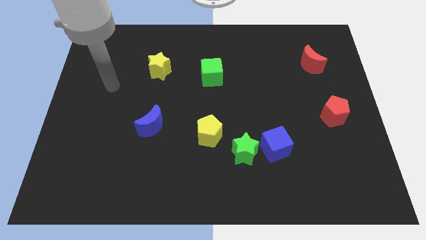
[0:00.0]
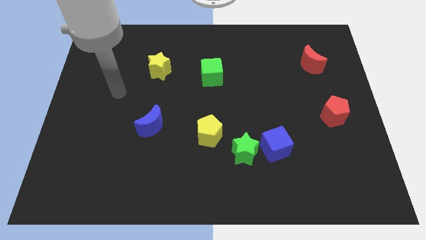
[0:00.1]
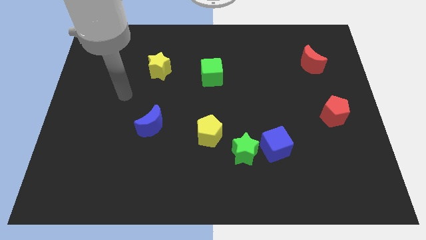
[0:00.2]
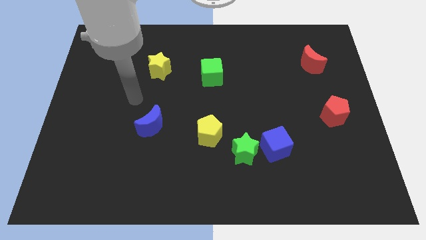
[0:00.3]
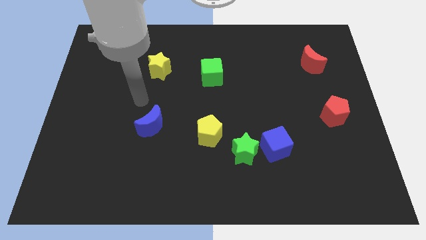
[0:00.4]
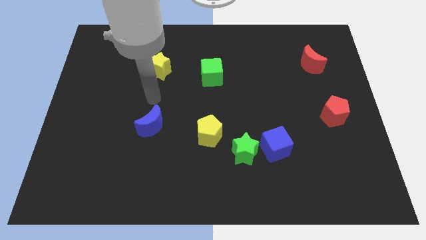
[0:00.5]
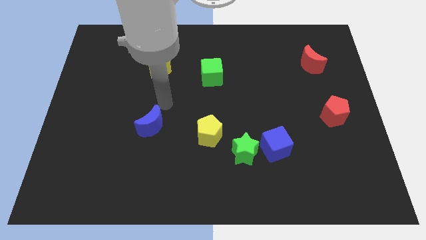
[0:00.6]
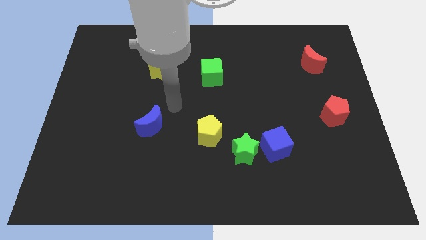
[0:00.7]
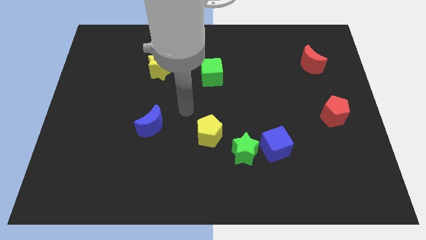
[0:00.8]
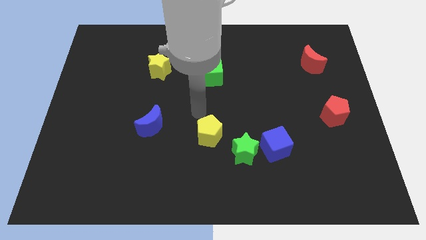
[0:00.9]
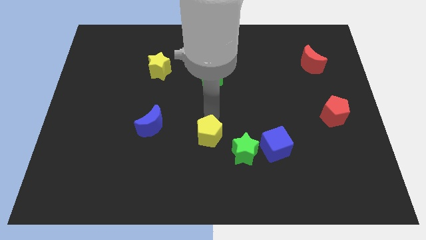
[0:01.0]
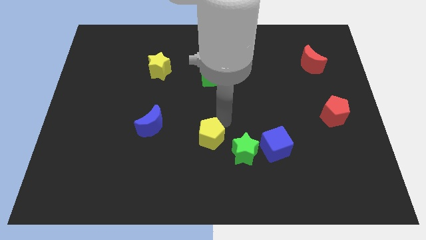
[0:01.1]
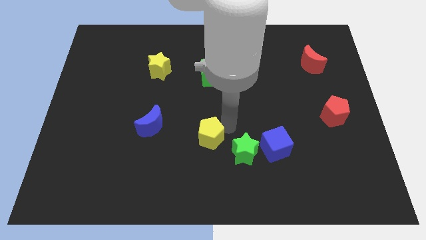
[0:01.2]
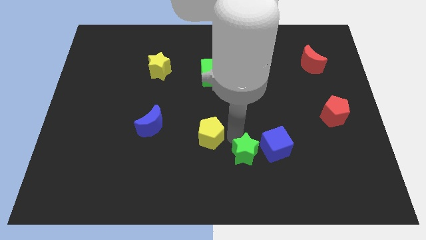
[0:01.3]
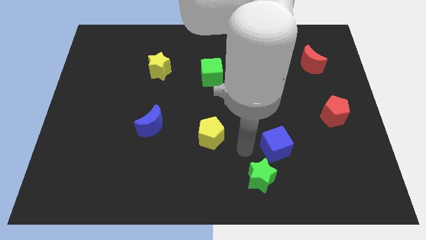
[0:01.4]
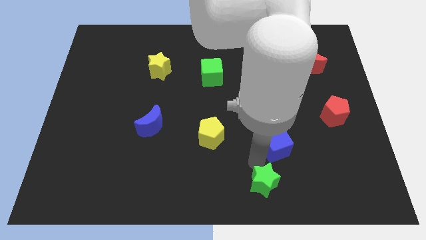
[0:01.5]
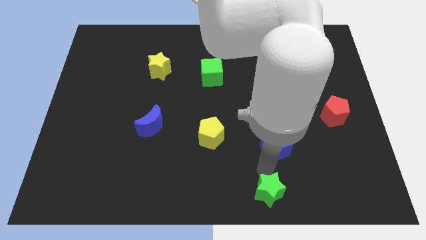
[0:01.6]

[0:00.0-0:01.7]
pull the blue cube apart from the green star

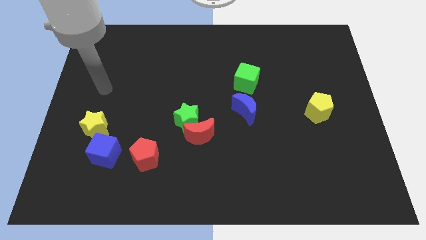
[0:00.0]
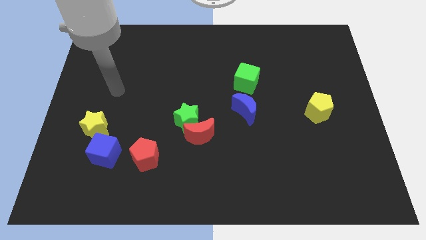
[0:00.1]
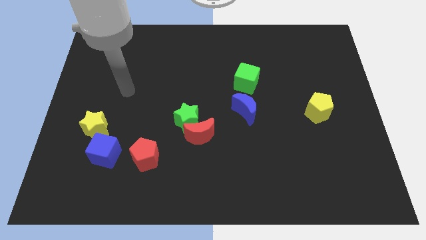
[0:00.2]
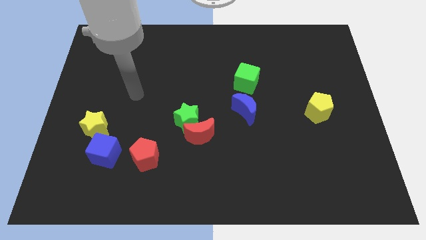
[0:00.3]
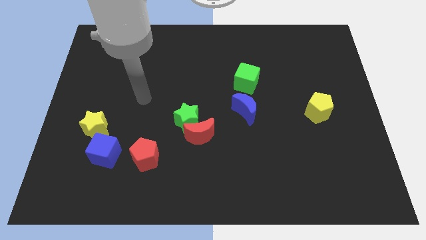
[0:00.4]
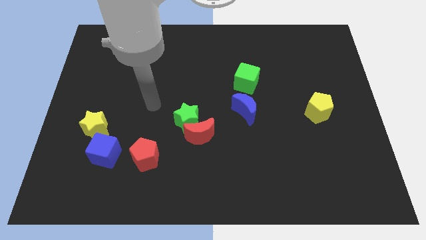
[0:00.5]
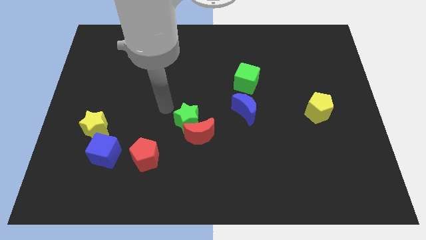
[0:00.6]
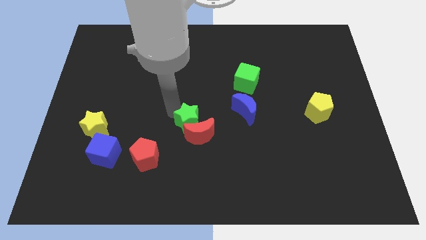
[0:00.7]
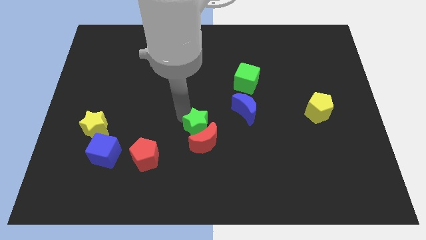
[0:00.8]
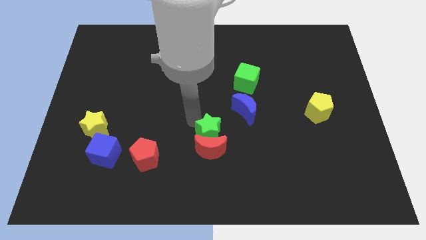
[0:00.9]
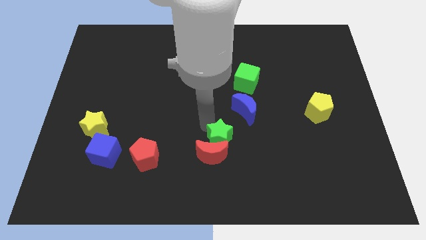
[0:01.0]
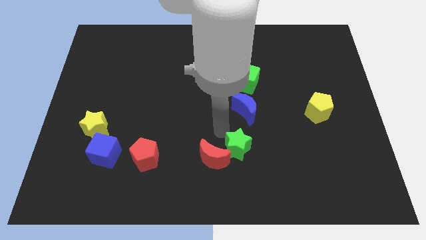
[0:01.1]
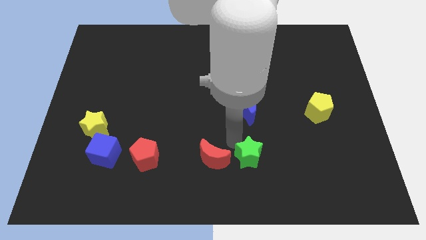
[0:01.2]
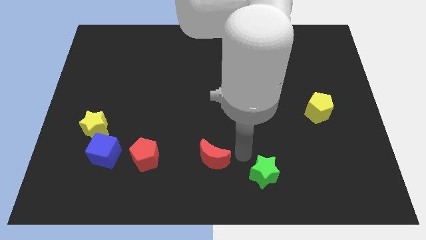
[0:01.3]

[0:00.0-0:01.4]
separate the red moon from the green star

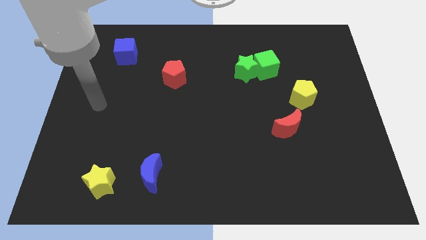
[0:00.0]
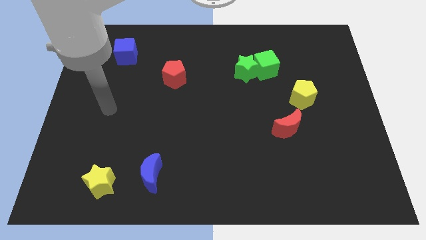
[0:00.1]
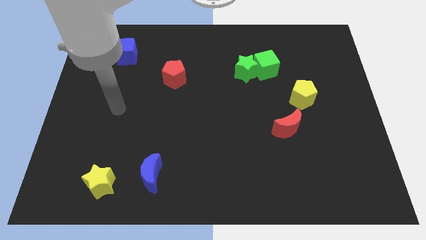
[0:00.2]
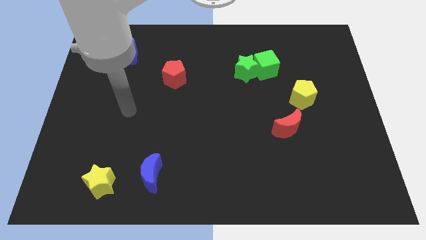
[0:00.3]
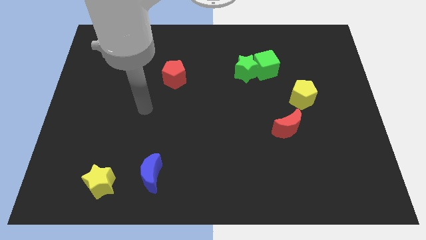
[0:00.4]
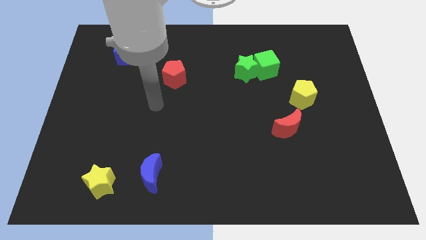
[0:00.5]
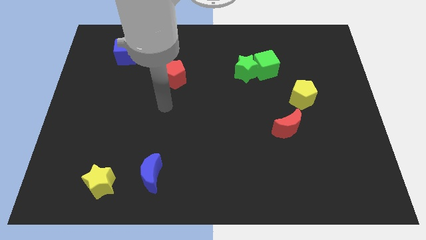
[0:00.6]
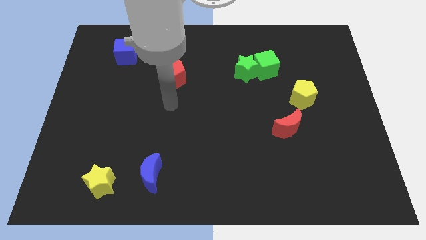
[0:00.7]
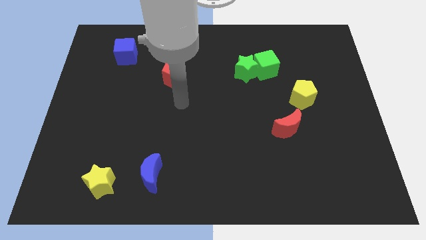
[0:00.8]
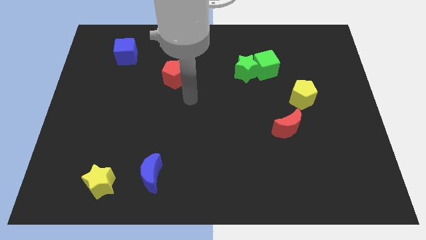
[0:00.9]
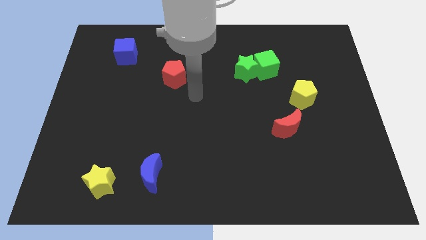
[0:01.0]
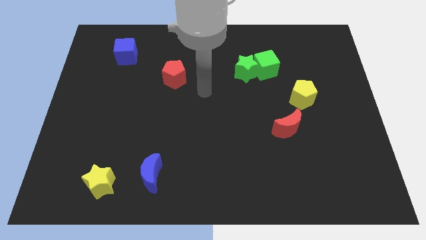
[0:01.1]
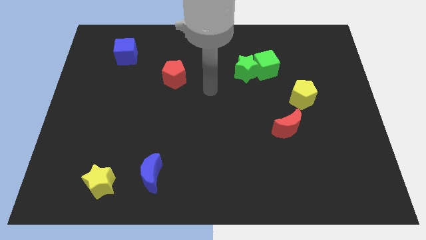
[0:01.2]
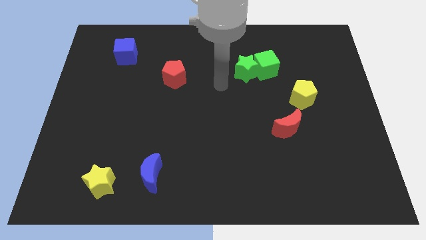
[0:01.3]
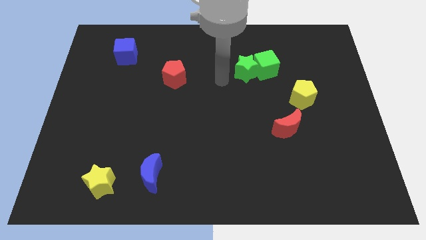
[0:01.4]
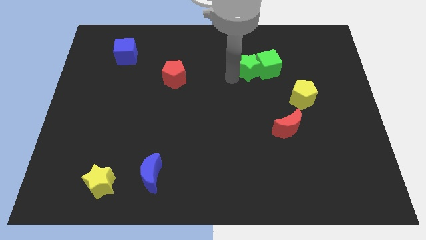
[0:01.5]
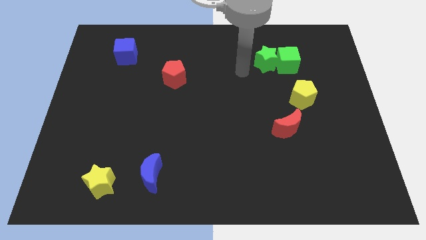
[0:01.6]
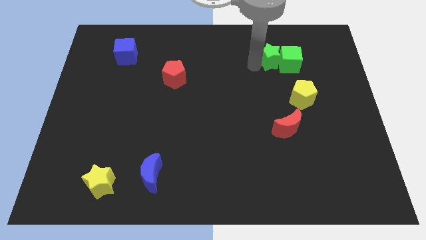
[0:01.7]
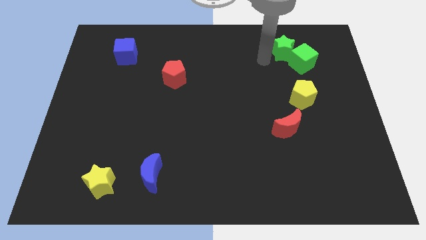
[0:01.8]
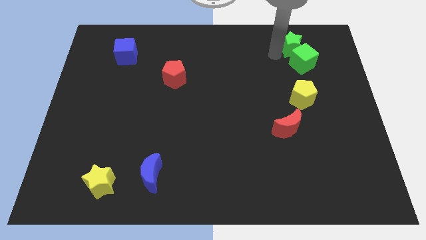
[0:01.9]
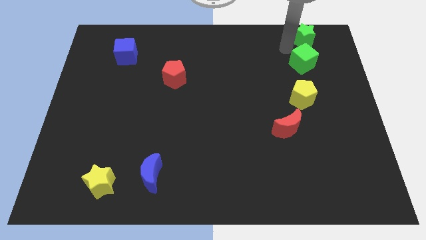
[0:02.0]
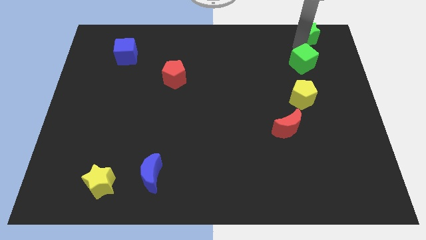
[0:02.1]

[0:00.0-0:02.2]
pull the green cube apart from the green star

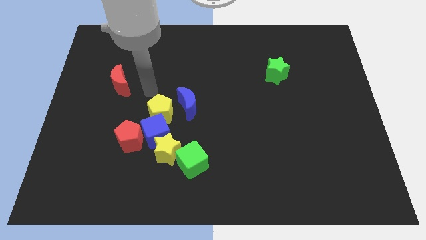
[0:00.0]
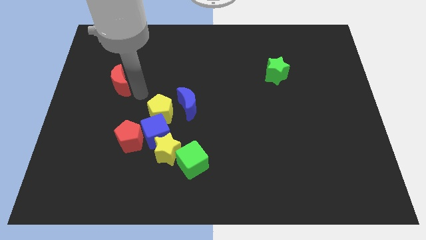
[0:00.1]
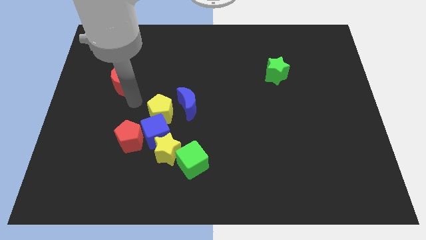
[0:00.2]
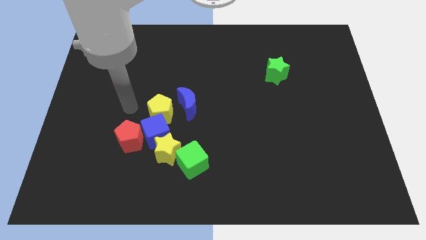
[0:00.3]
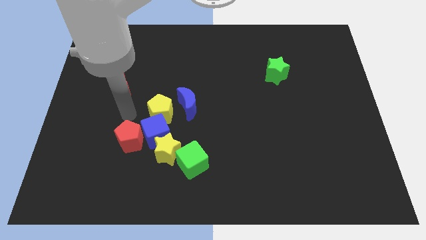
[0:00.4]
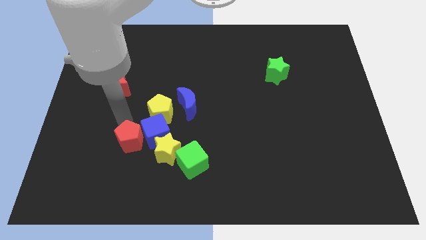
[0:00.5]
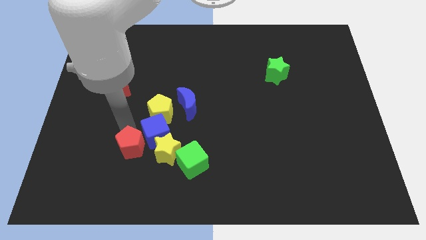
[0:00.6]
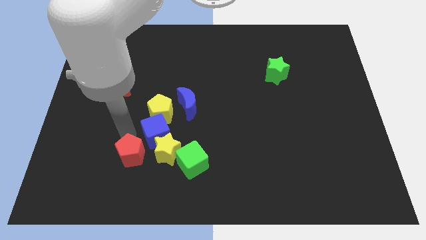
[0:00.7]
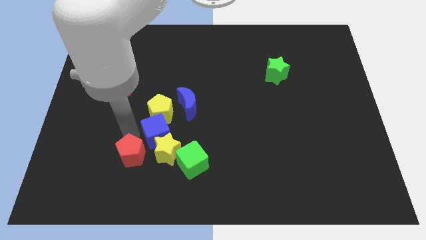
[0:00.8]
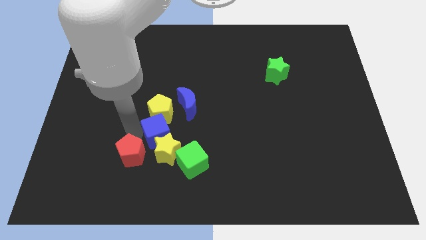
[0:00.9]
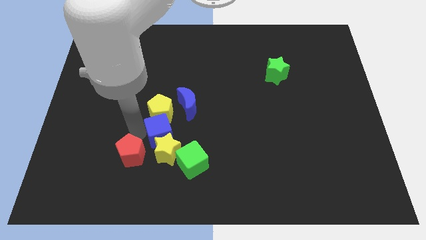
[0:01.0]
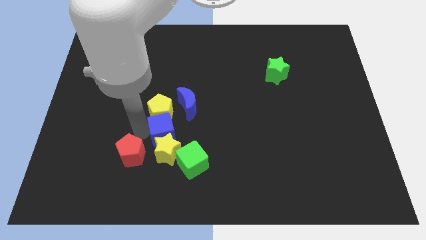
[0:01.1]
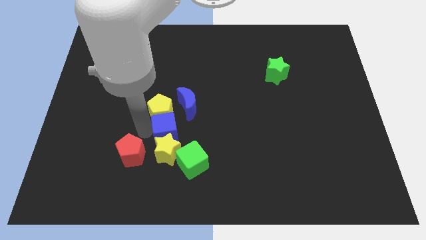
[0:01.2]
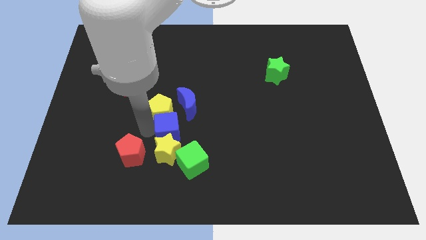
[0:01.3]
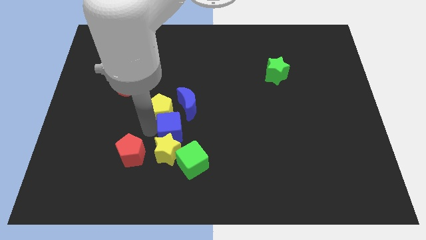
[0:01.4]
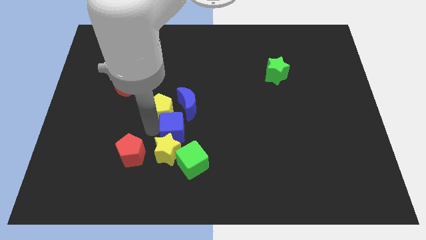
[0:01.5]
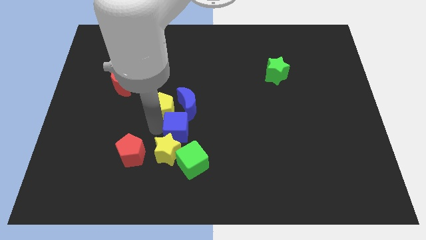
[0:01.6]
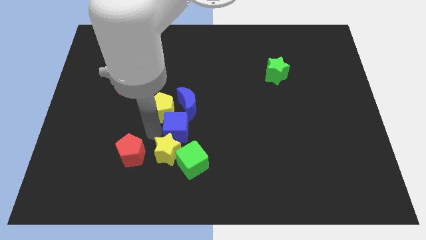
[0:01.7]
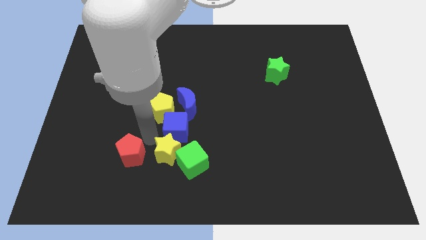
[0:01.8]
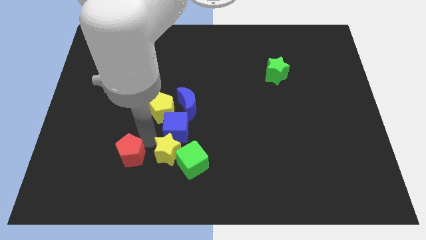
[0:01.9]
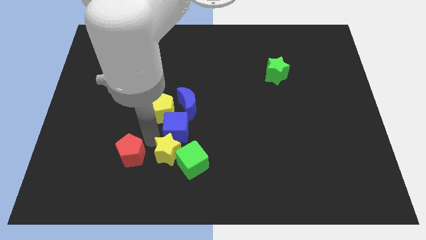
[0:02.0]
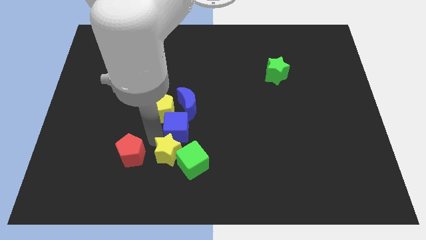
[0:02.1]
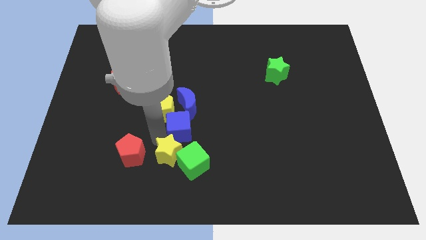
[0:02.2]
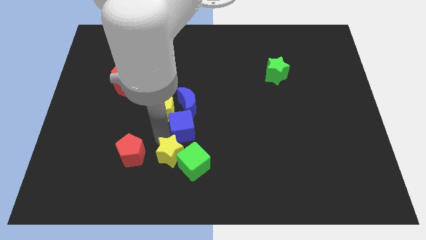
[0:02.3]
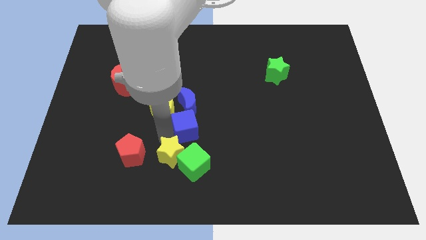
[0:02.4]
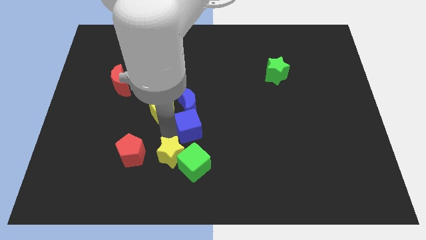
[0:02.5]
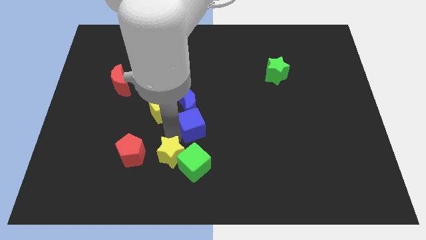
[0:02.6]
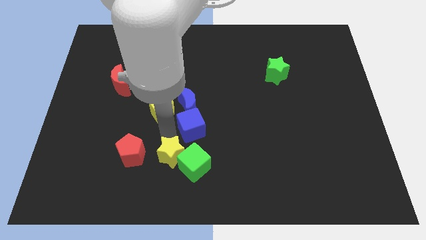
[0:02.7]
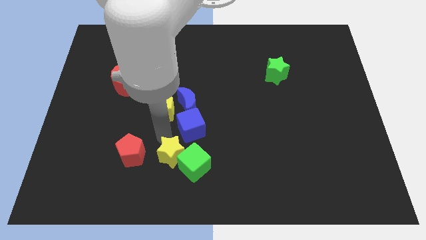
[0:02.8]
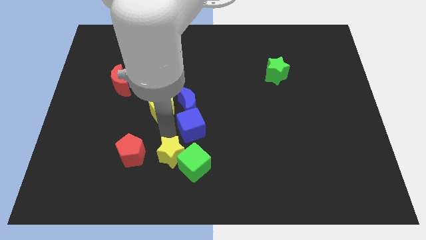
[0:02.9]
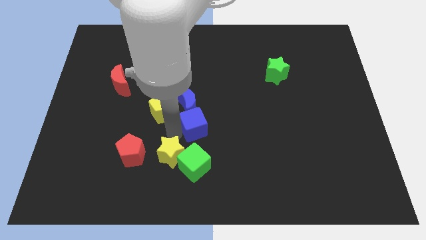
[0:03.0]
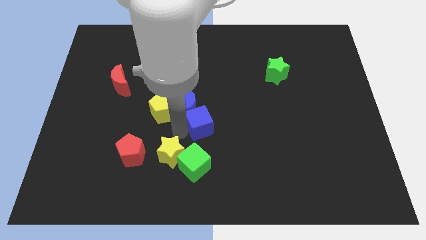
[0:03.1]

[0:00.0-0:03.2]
separate the blue cube from the yellow star, yellow pentagon, and red pentagon

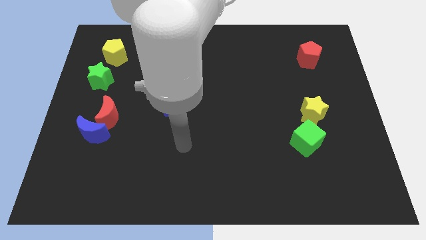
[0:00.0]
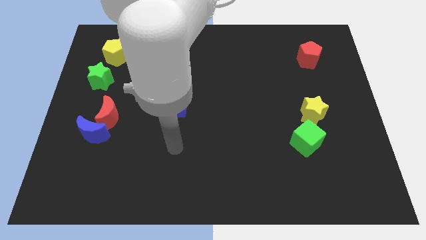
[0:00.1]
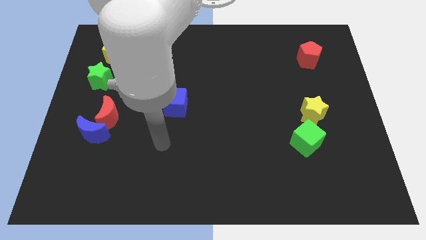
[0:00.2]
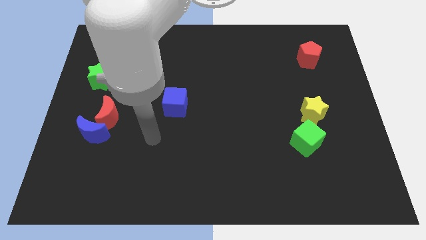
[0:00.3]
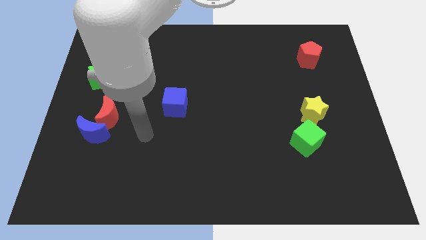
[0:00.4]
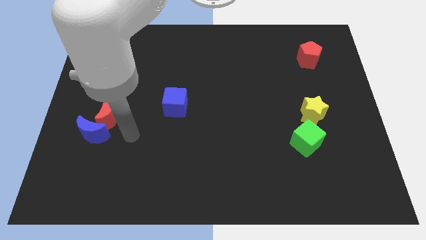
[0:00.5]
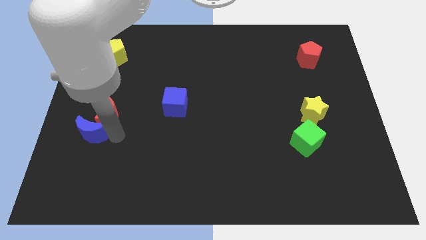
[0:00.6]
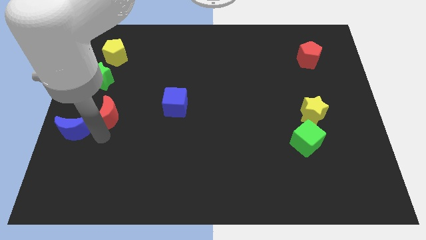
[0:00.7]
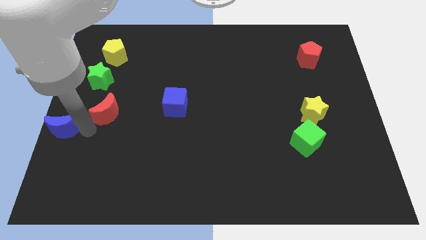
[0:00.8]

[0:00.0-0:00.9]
pull the red moon apart from the blue moon
